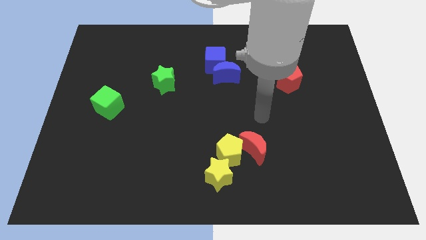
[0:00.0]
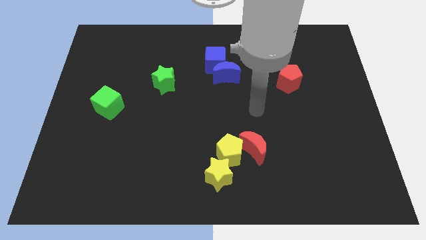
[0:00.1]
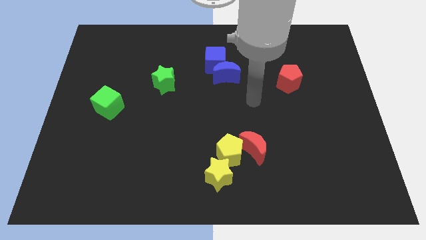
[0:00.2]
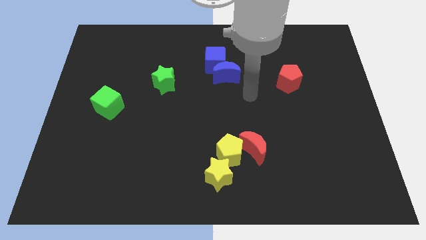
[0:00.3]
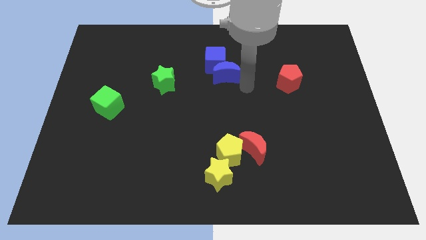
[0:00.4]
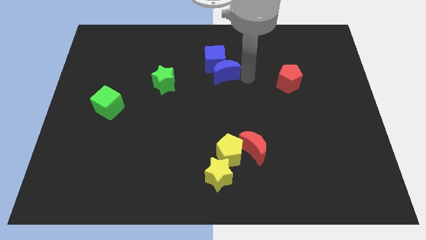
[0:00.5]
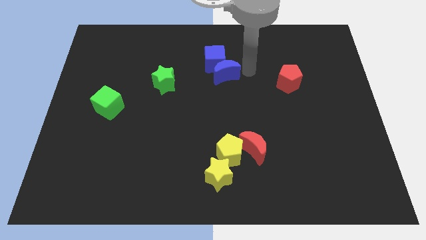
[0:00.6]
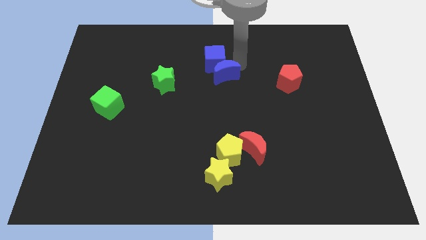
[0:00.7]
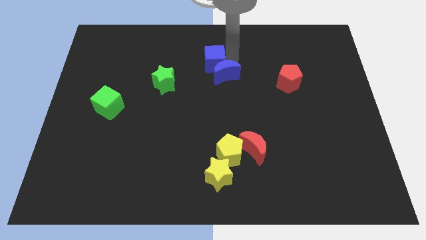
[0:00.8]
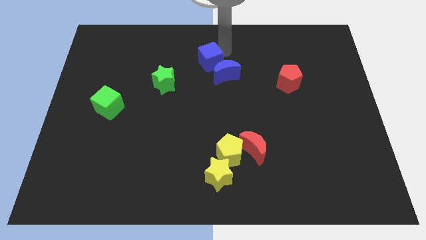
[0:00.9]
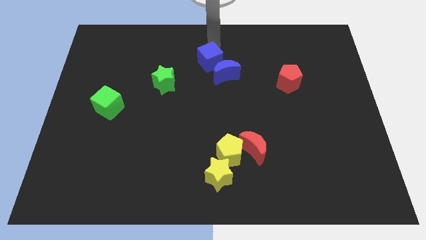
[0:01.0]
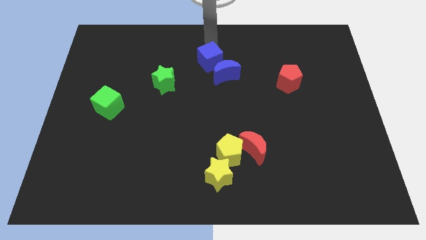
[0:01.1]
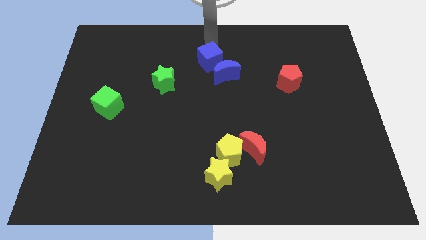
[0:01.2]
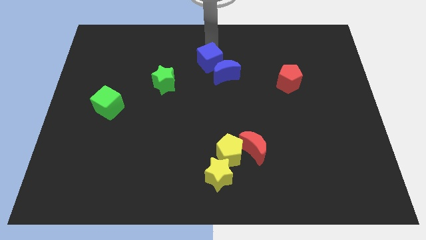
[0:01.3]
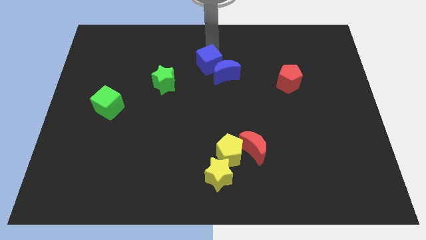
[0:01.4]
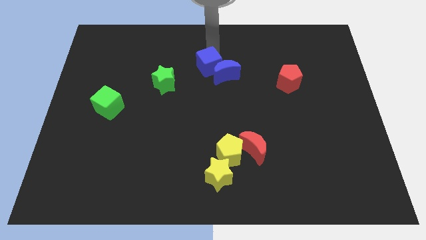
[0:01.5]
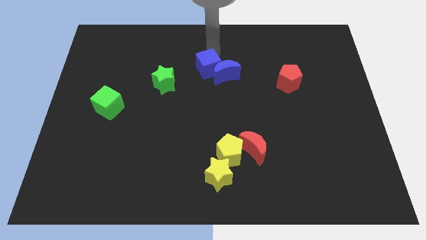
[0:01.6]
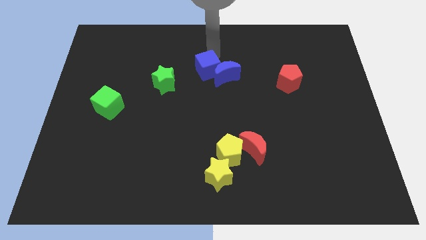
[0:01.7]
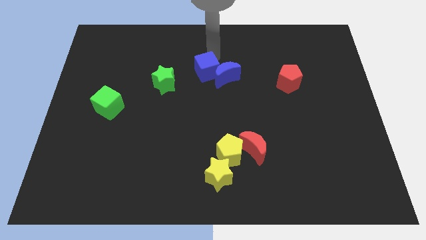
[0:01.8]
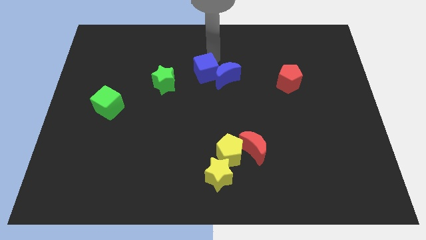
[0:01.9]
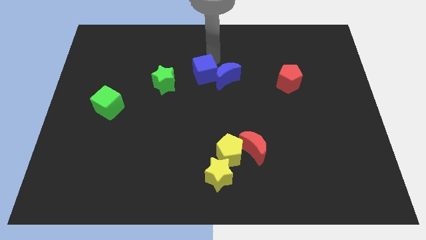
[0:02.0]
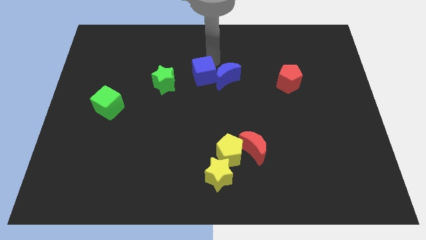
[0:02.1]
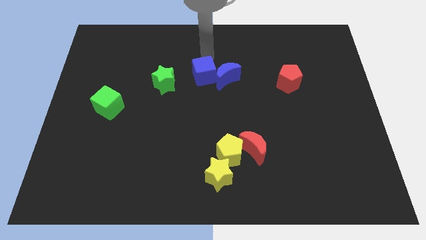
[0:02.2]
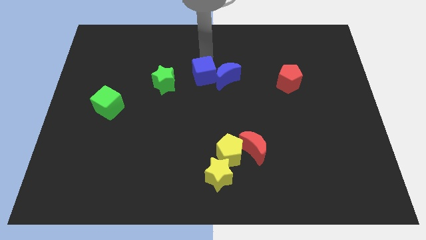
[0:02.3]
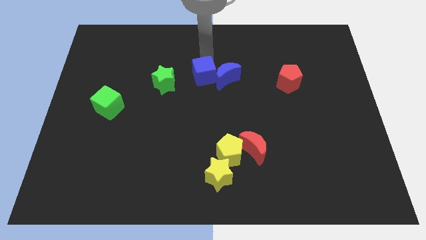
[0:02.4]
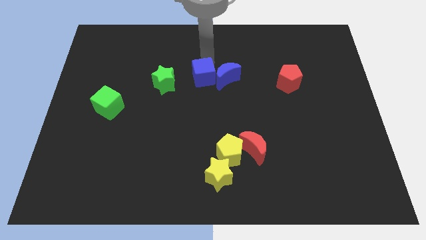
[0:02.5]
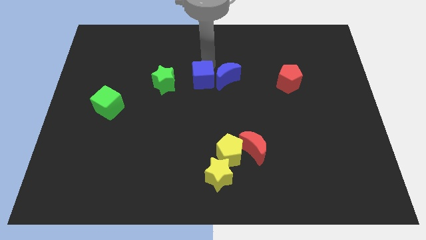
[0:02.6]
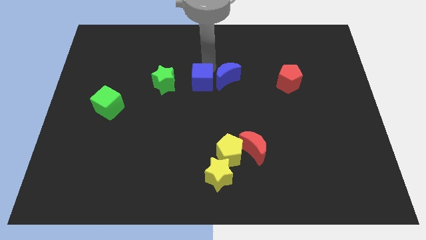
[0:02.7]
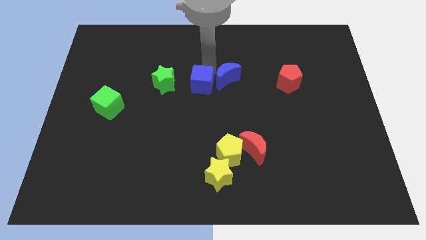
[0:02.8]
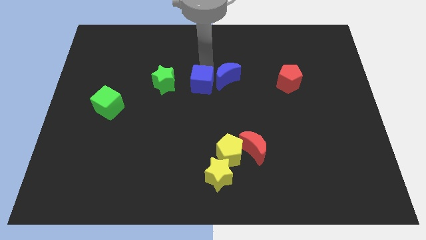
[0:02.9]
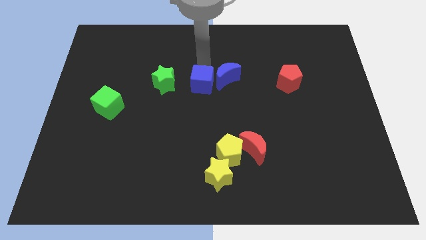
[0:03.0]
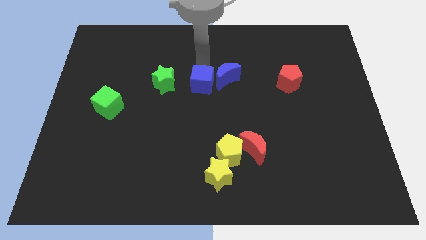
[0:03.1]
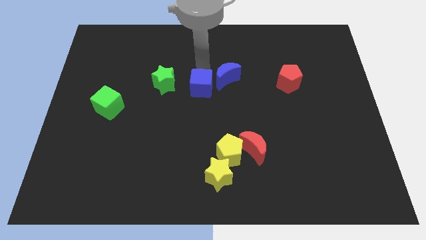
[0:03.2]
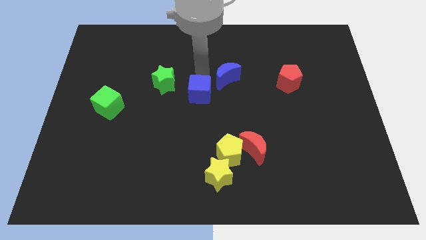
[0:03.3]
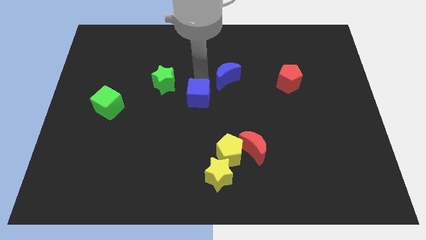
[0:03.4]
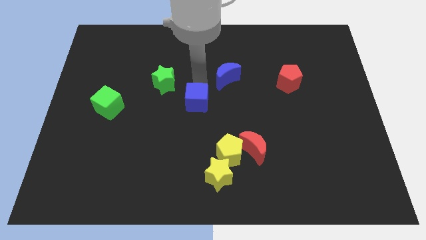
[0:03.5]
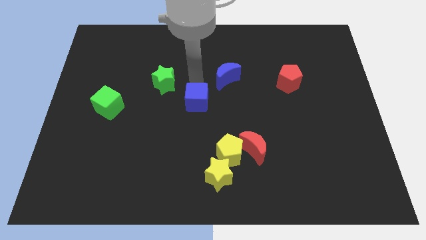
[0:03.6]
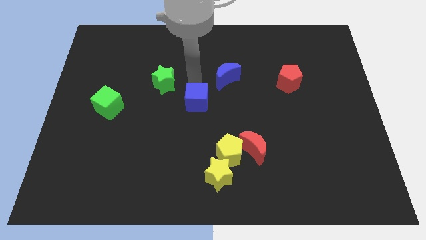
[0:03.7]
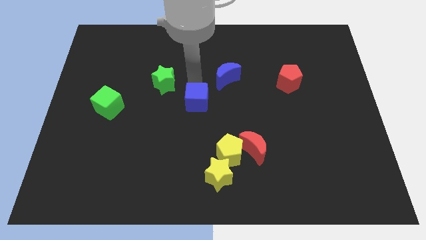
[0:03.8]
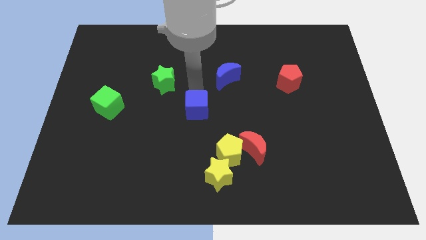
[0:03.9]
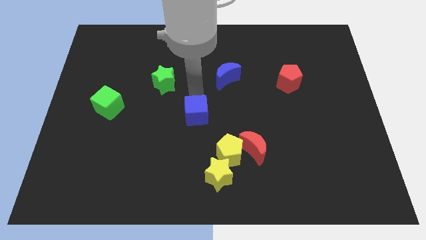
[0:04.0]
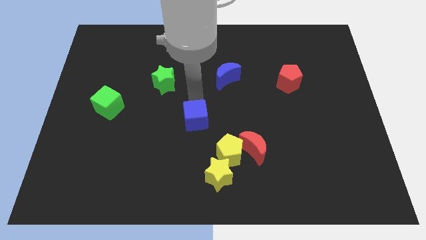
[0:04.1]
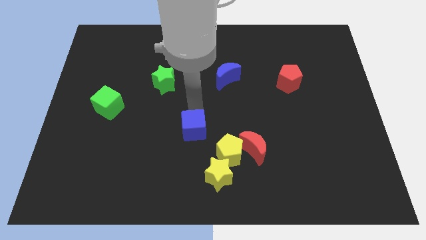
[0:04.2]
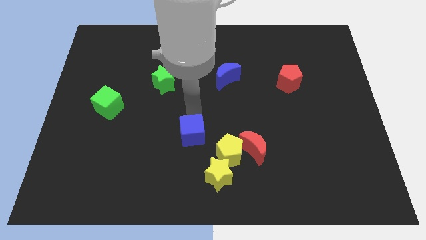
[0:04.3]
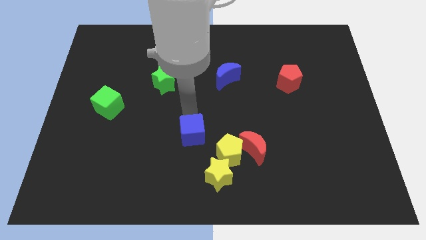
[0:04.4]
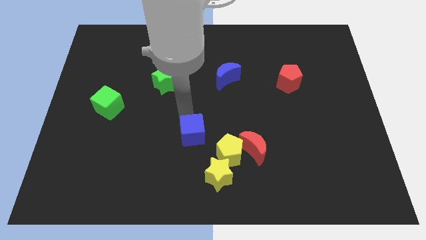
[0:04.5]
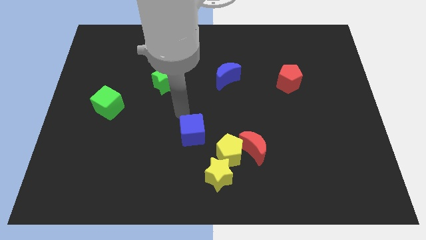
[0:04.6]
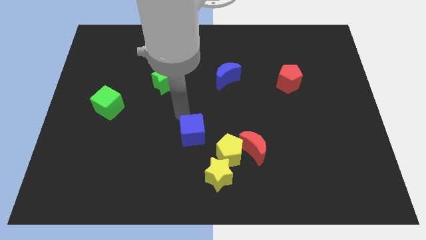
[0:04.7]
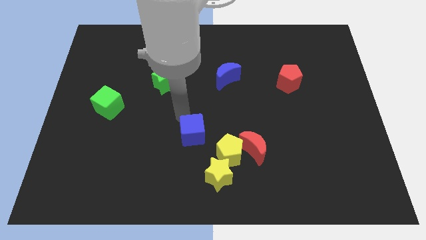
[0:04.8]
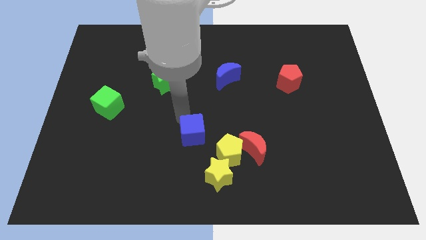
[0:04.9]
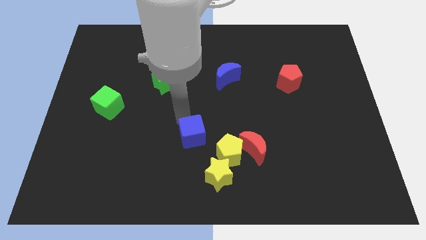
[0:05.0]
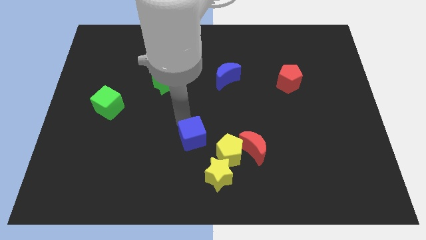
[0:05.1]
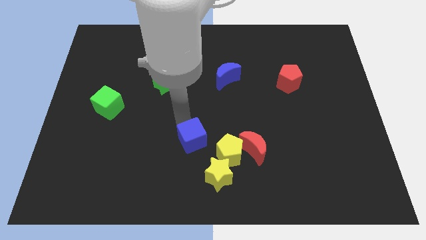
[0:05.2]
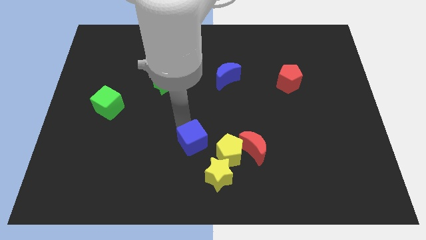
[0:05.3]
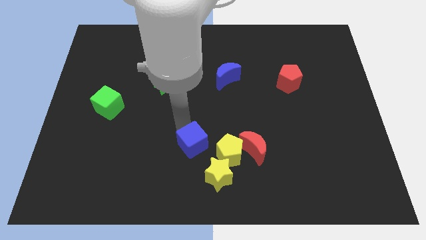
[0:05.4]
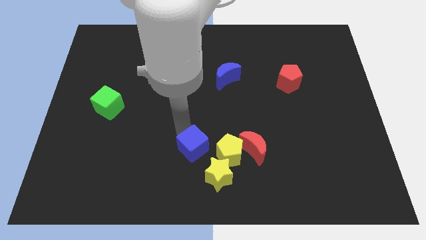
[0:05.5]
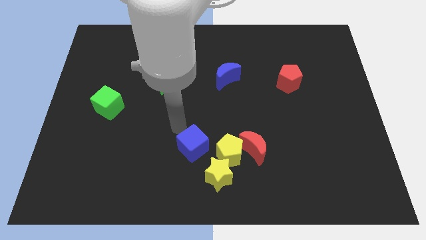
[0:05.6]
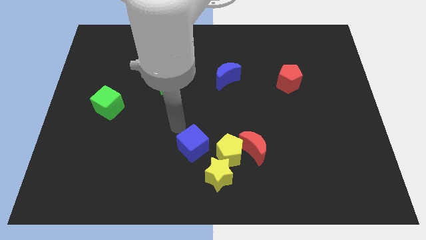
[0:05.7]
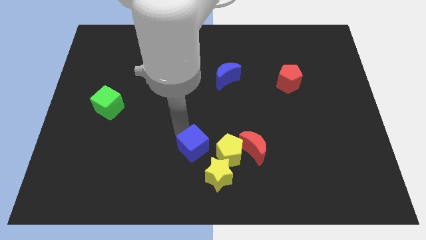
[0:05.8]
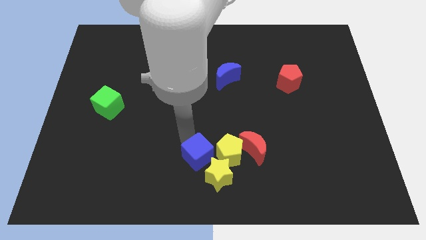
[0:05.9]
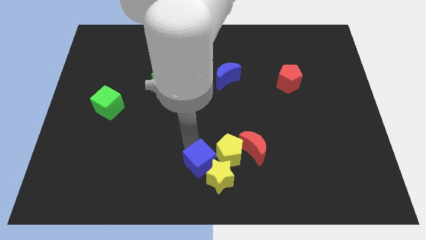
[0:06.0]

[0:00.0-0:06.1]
put the blue cube towards the yellow star

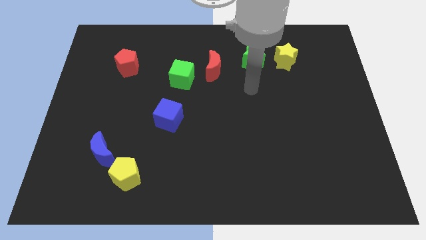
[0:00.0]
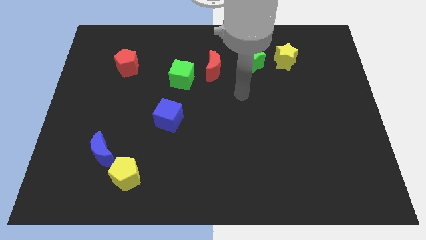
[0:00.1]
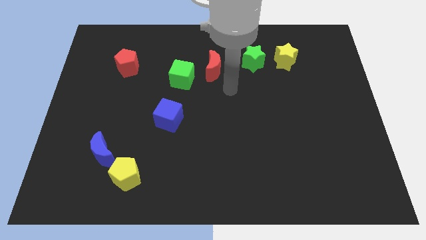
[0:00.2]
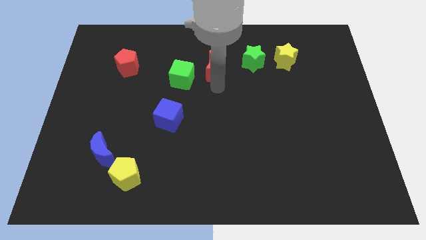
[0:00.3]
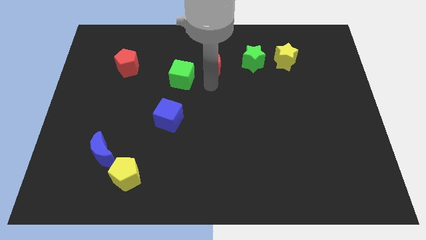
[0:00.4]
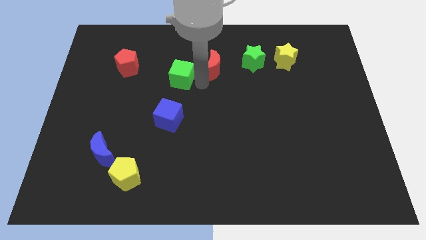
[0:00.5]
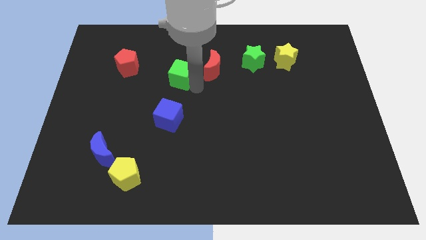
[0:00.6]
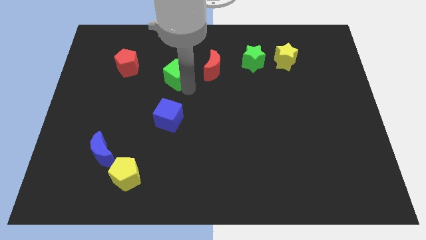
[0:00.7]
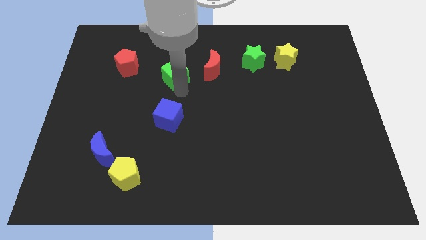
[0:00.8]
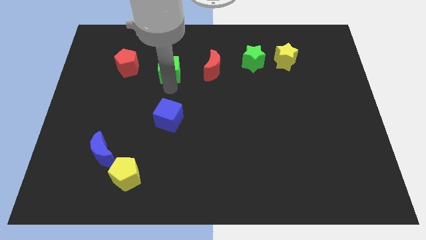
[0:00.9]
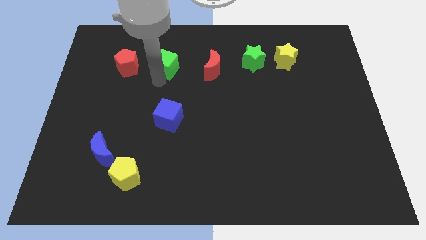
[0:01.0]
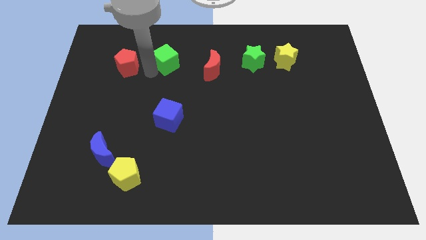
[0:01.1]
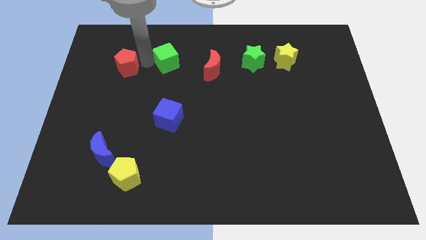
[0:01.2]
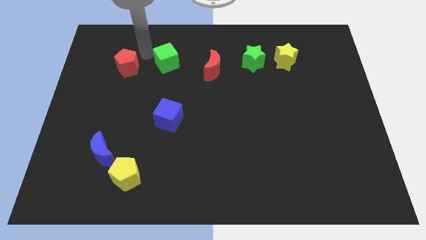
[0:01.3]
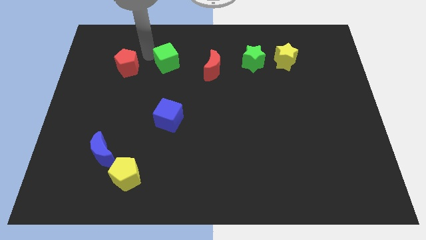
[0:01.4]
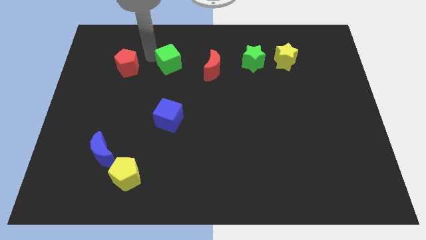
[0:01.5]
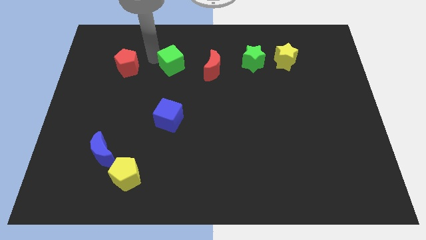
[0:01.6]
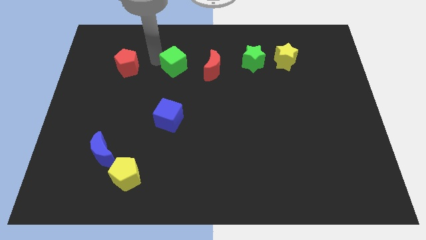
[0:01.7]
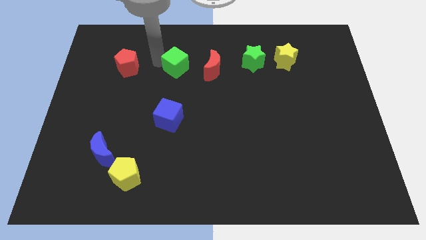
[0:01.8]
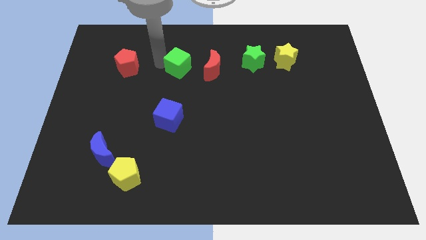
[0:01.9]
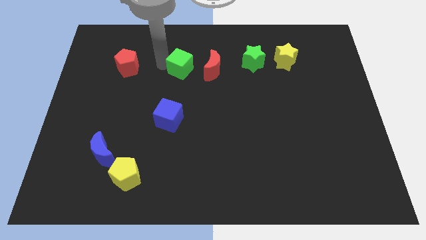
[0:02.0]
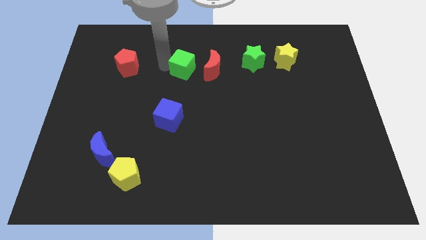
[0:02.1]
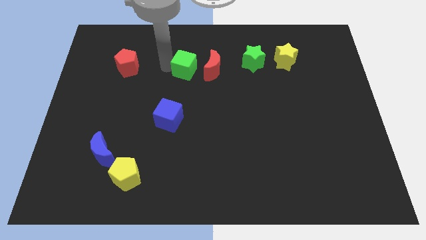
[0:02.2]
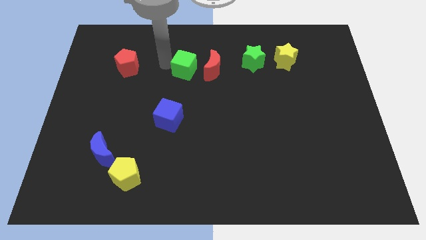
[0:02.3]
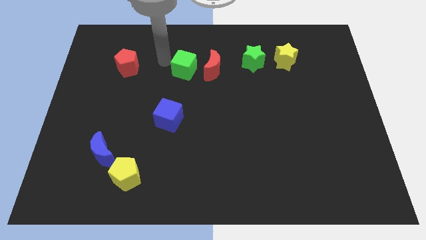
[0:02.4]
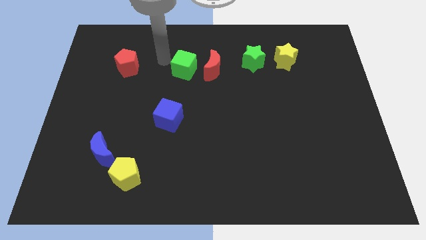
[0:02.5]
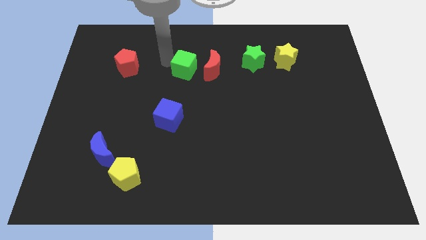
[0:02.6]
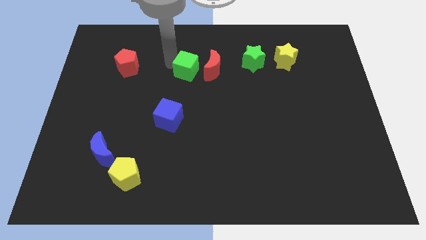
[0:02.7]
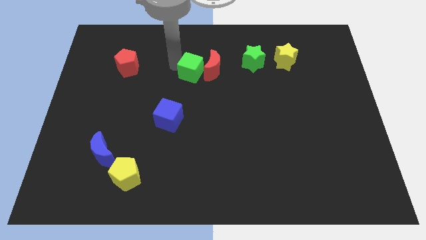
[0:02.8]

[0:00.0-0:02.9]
slide the green cube close to the red moon
